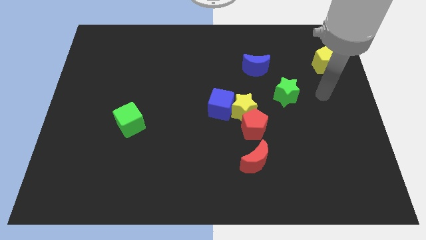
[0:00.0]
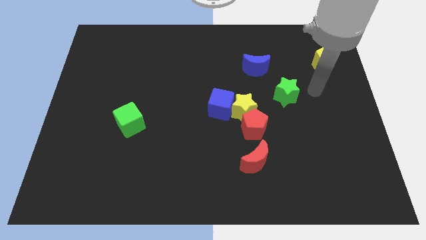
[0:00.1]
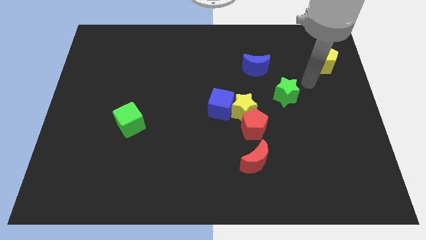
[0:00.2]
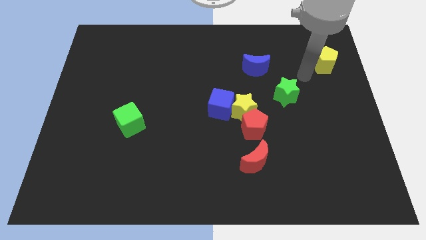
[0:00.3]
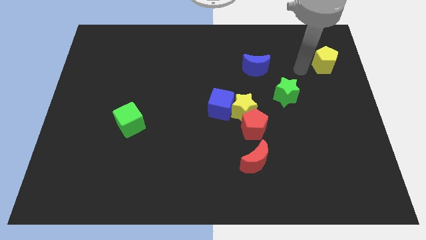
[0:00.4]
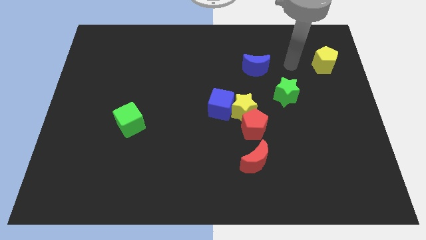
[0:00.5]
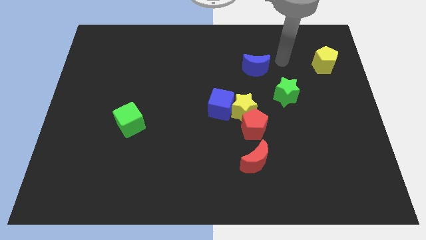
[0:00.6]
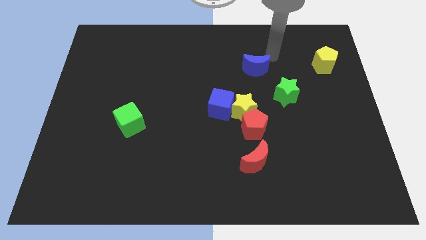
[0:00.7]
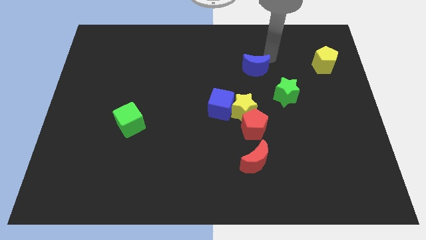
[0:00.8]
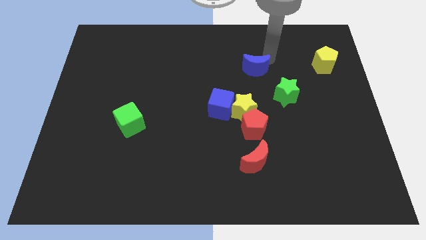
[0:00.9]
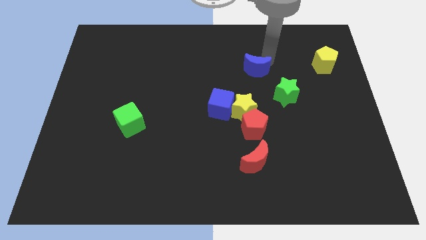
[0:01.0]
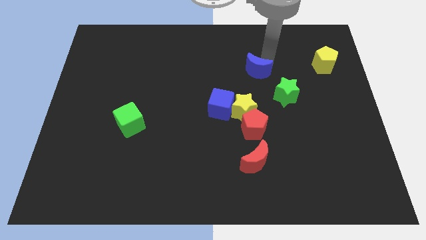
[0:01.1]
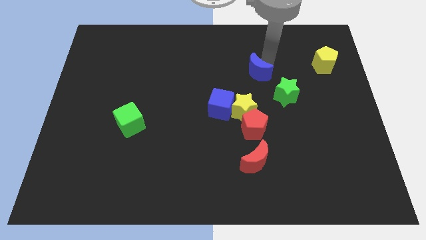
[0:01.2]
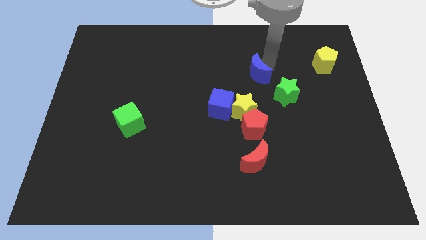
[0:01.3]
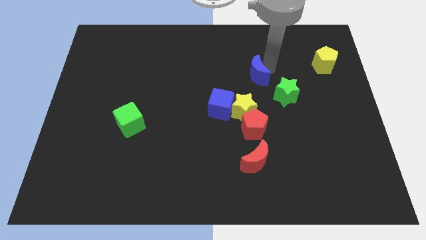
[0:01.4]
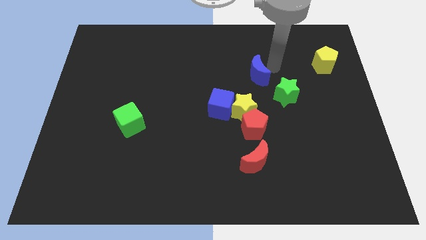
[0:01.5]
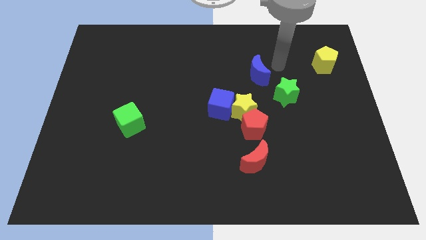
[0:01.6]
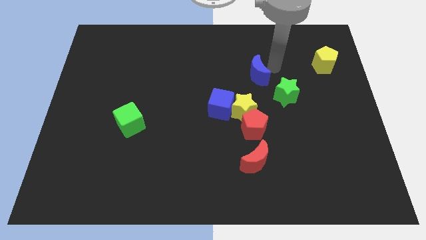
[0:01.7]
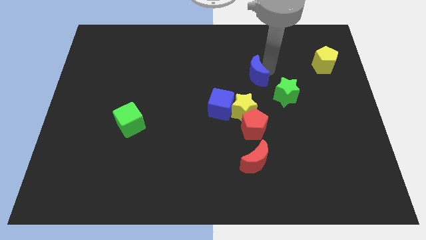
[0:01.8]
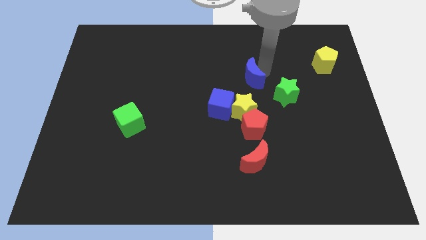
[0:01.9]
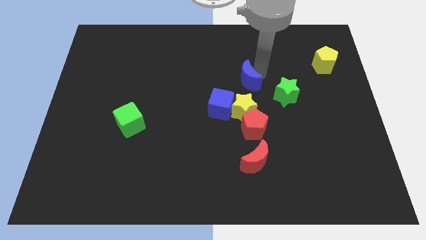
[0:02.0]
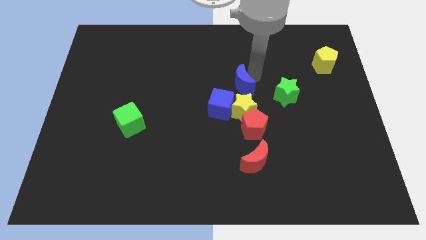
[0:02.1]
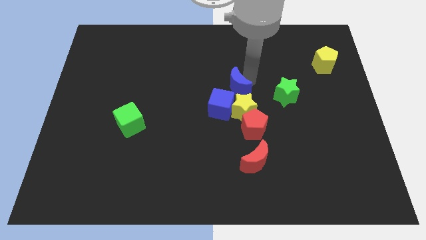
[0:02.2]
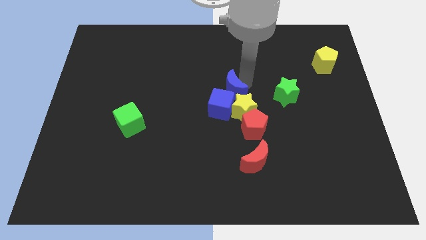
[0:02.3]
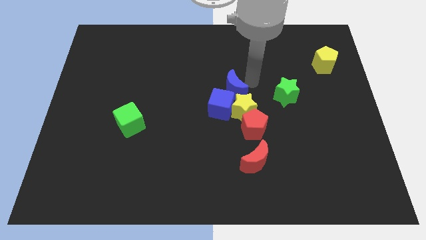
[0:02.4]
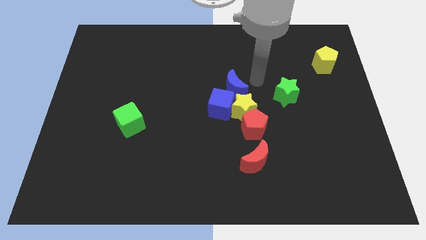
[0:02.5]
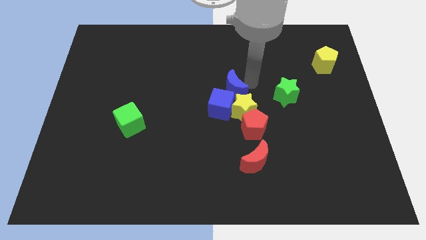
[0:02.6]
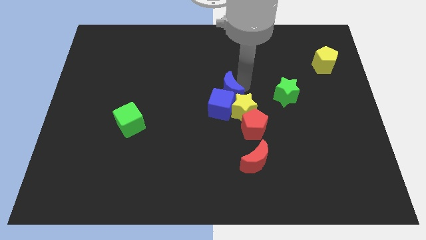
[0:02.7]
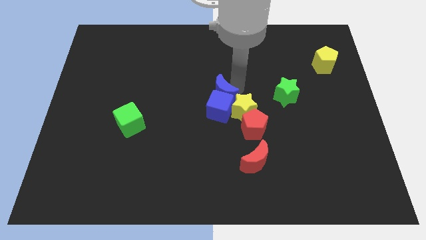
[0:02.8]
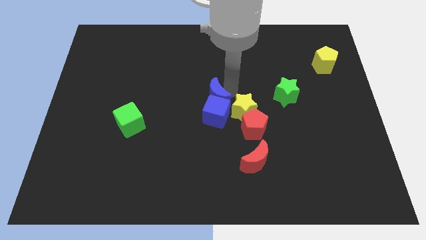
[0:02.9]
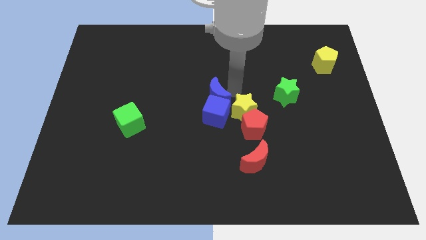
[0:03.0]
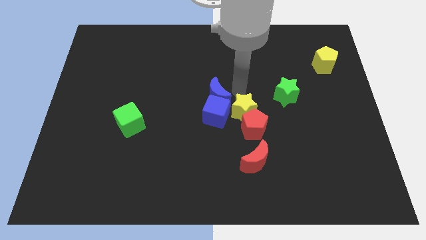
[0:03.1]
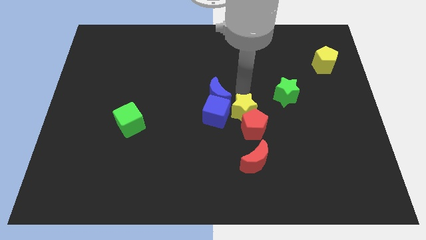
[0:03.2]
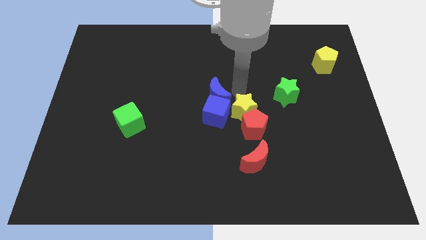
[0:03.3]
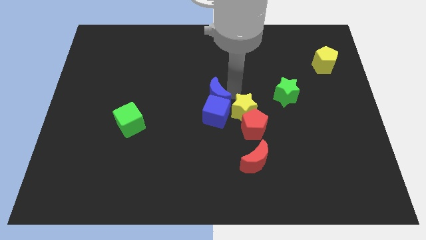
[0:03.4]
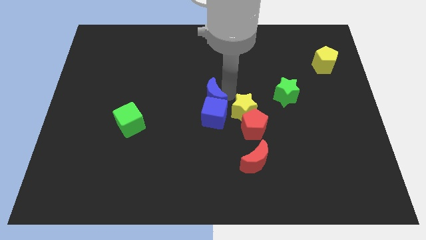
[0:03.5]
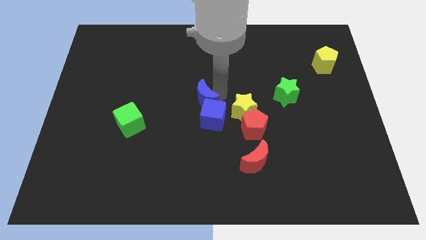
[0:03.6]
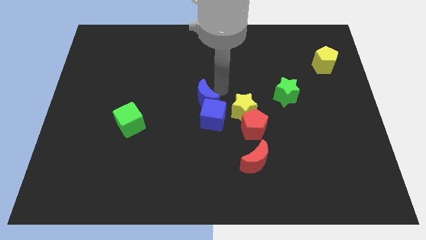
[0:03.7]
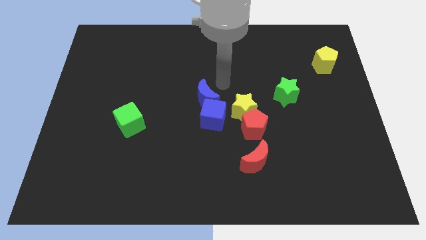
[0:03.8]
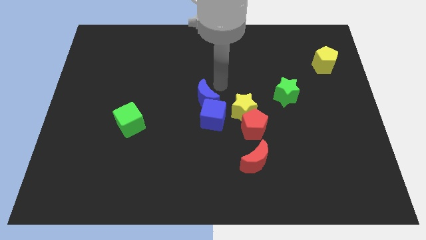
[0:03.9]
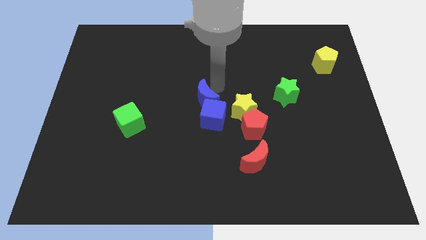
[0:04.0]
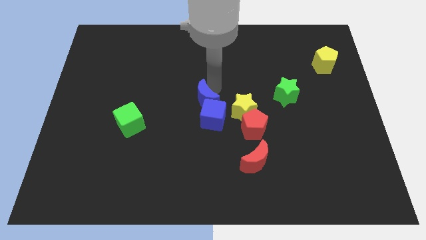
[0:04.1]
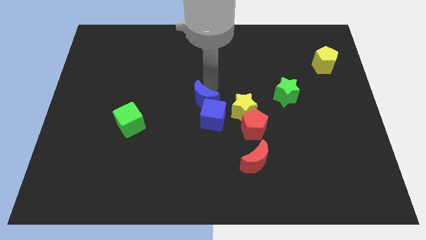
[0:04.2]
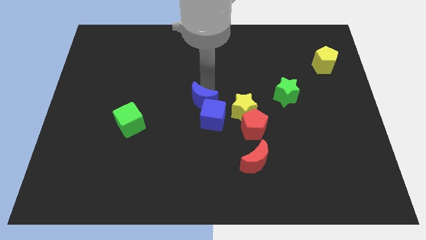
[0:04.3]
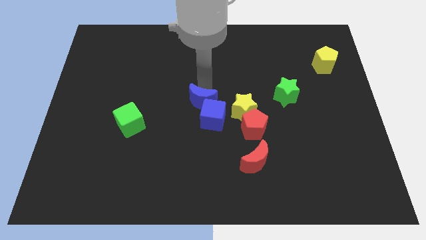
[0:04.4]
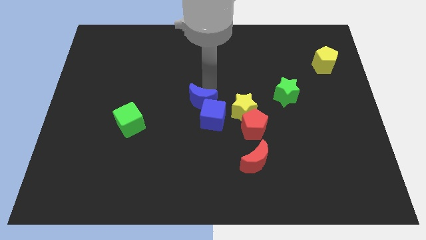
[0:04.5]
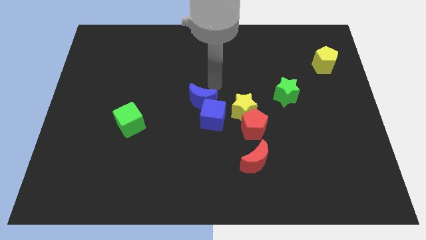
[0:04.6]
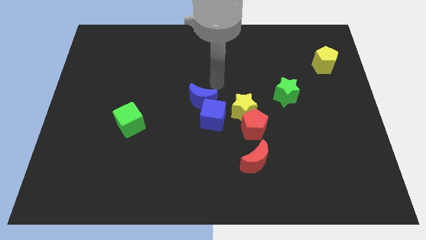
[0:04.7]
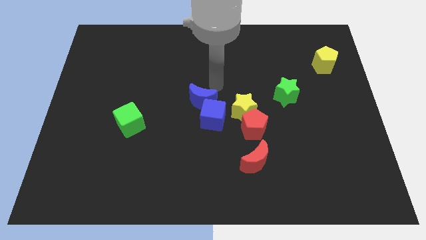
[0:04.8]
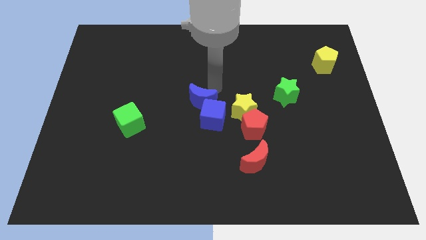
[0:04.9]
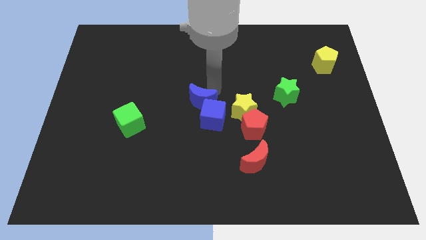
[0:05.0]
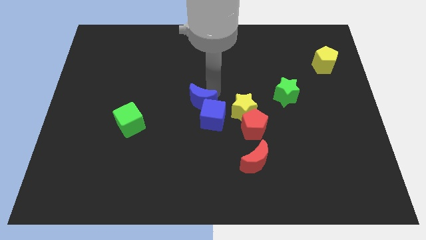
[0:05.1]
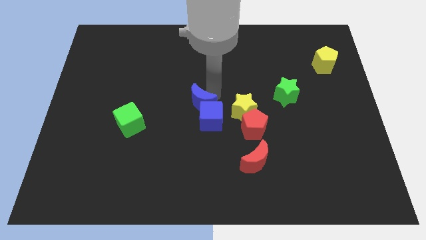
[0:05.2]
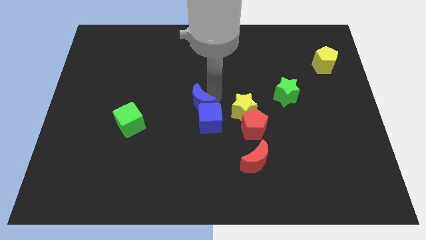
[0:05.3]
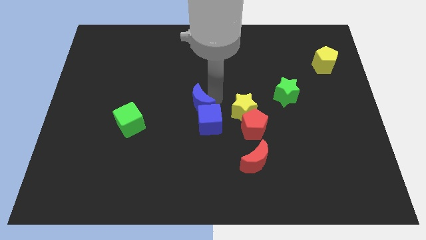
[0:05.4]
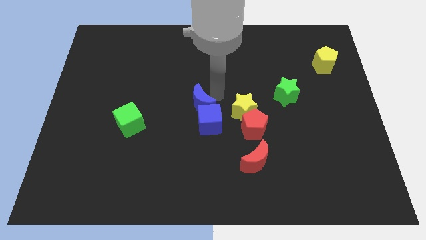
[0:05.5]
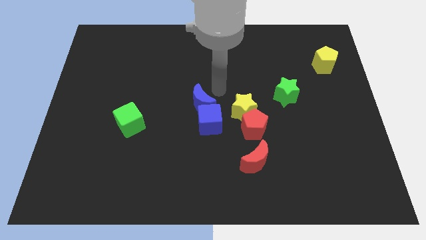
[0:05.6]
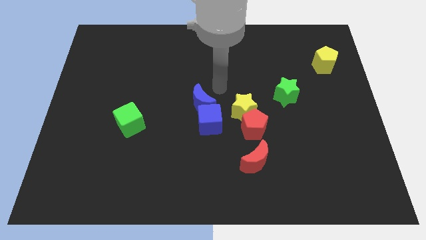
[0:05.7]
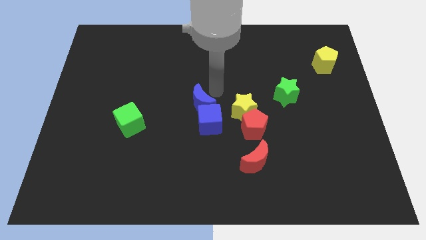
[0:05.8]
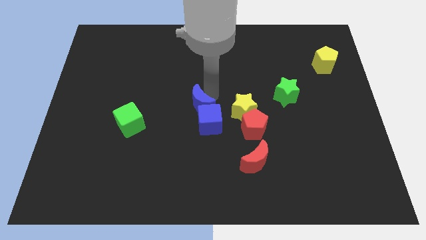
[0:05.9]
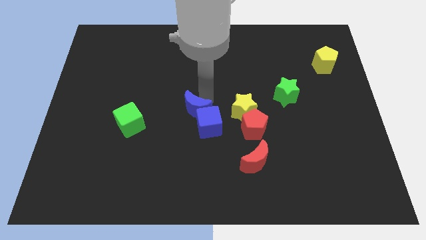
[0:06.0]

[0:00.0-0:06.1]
slide the blue moon down and left

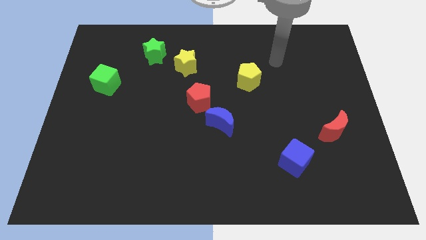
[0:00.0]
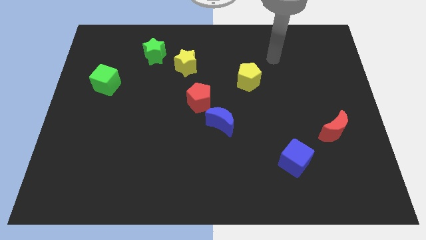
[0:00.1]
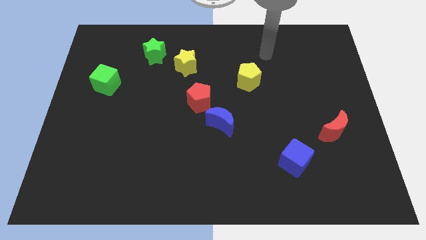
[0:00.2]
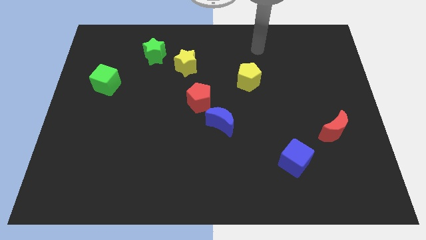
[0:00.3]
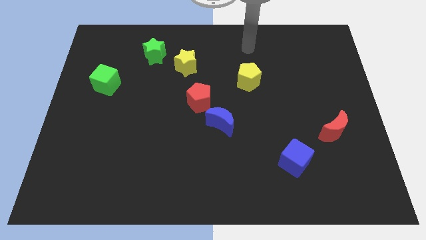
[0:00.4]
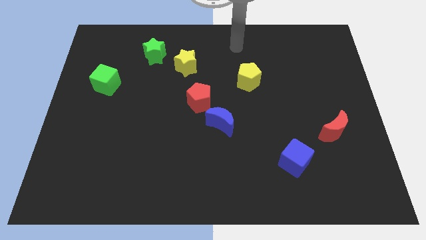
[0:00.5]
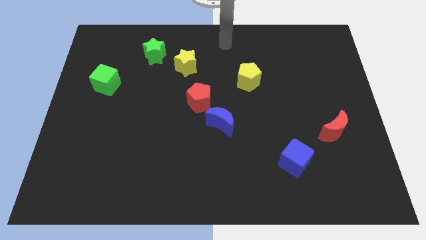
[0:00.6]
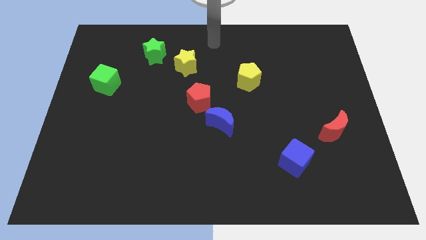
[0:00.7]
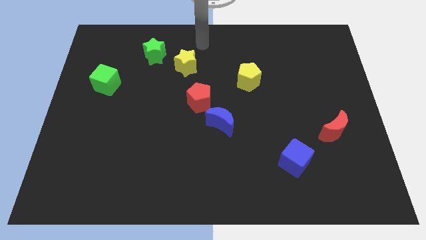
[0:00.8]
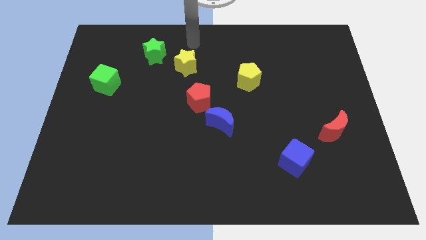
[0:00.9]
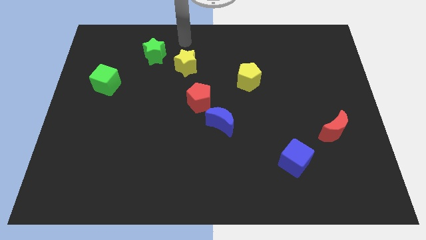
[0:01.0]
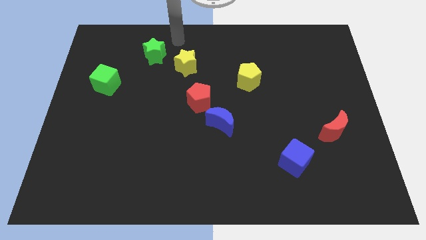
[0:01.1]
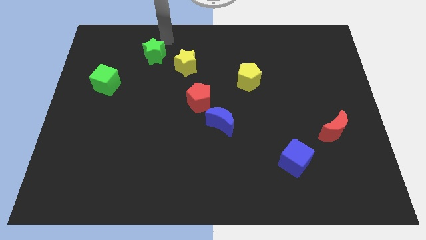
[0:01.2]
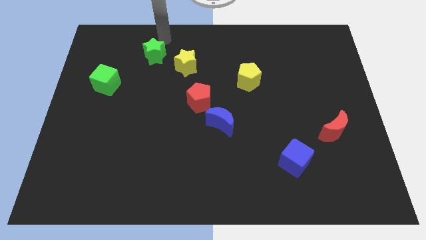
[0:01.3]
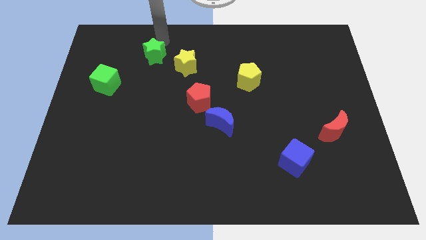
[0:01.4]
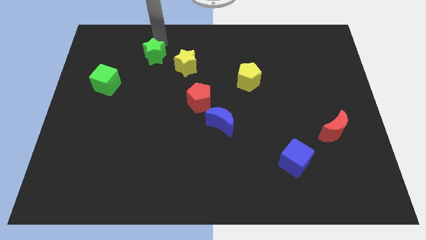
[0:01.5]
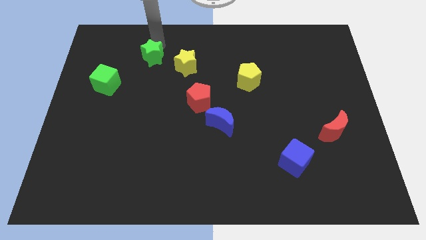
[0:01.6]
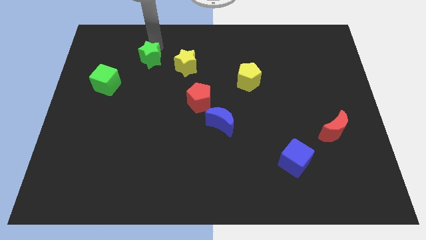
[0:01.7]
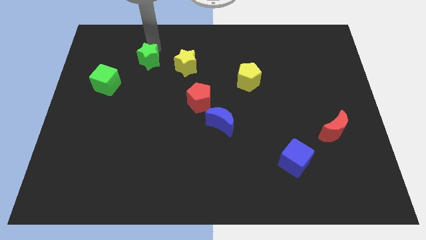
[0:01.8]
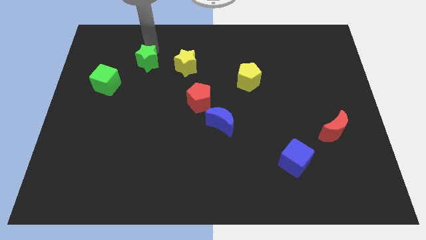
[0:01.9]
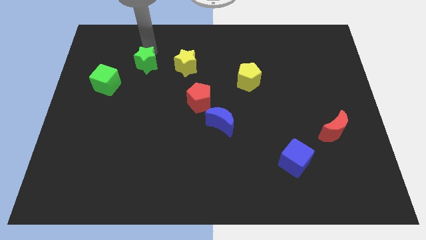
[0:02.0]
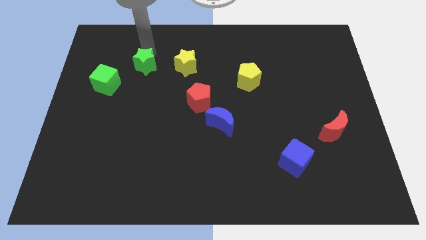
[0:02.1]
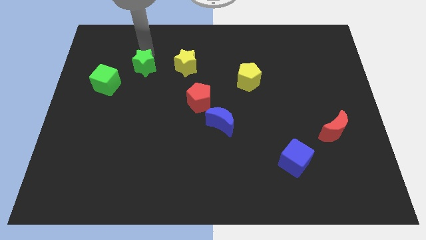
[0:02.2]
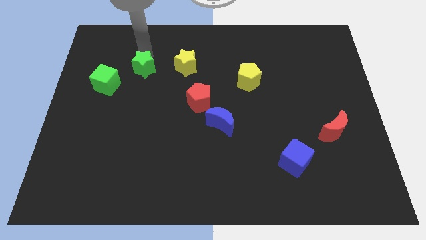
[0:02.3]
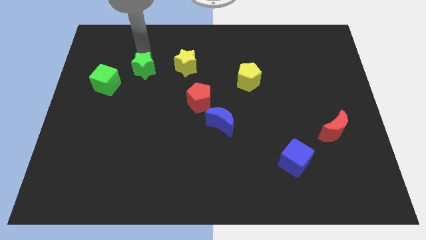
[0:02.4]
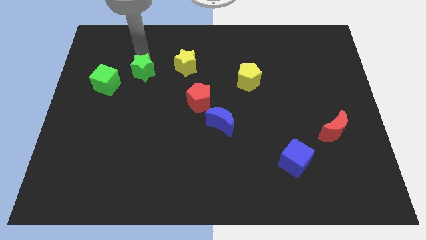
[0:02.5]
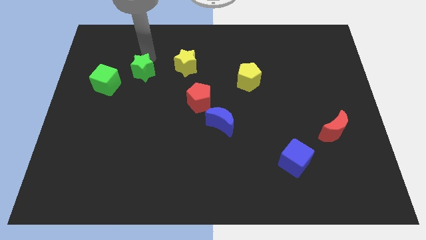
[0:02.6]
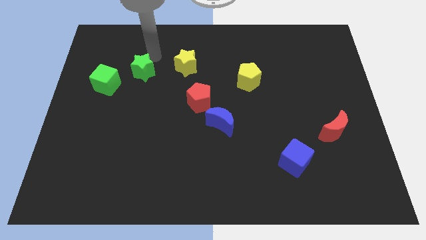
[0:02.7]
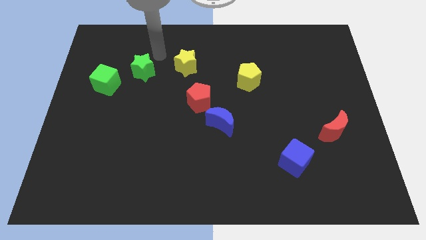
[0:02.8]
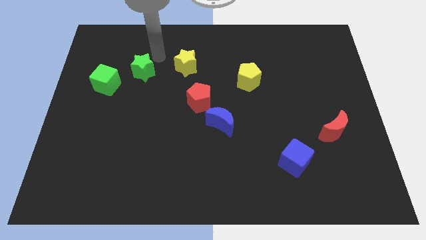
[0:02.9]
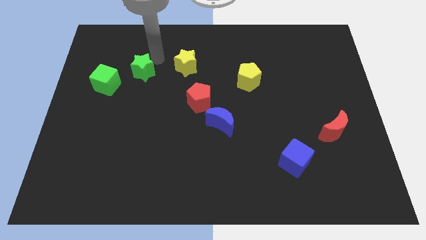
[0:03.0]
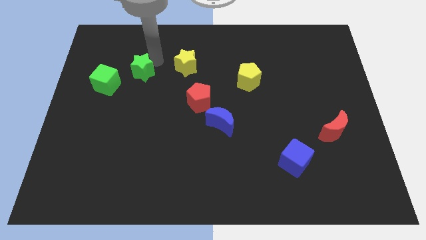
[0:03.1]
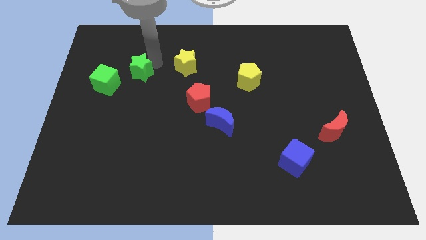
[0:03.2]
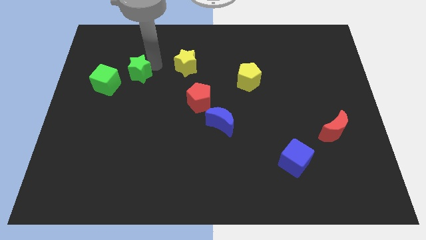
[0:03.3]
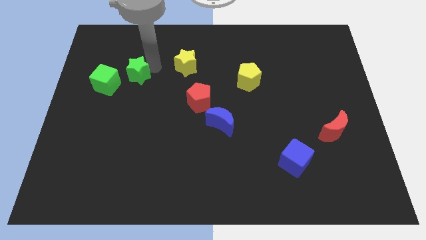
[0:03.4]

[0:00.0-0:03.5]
slide the green star slightly down and left
